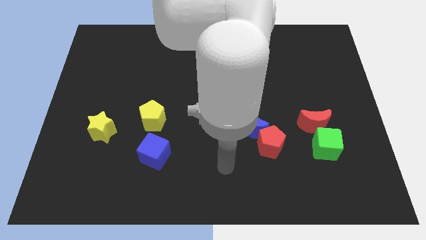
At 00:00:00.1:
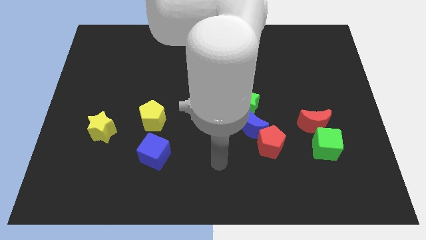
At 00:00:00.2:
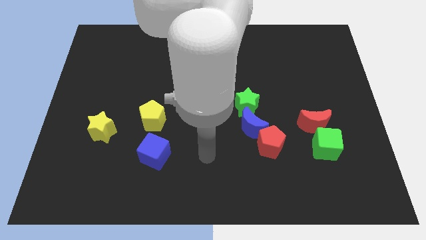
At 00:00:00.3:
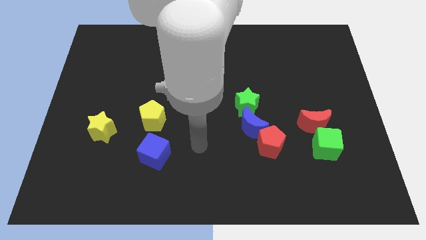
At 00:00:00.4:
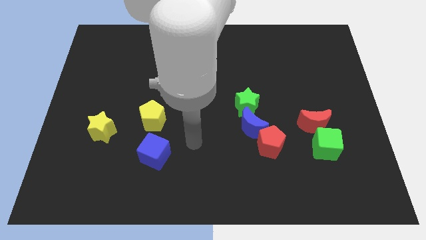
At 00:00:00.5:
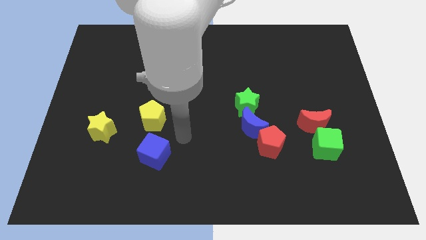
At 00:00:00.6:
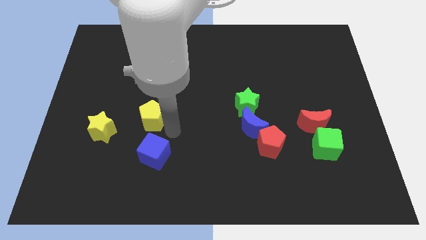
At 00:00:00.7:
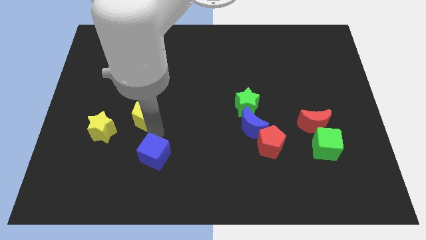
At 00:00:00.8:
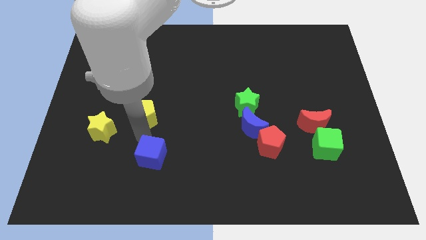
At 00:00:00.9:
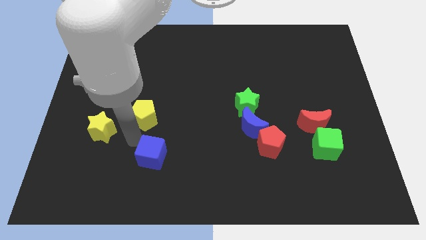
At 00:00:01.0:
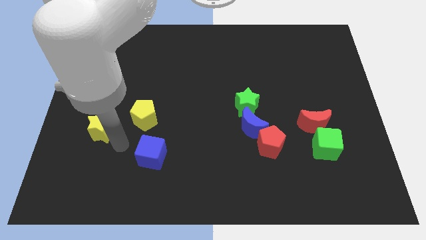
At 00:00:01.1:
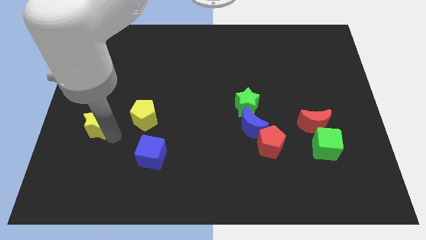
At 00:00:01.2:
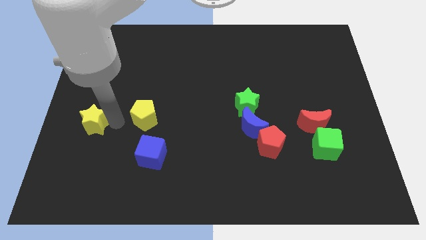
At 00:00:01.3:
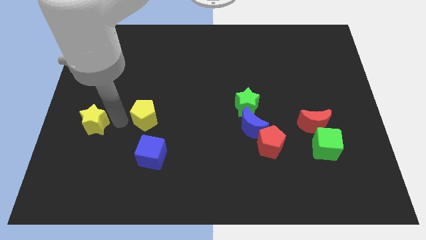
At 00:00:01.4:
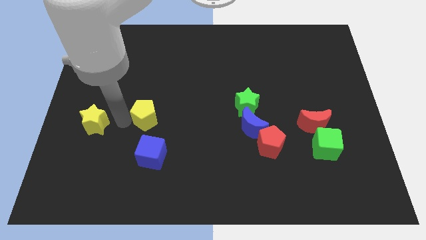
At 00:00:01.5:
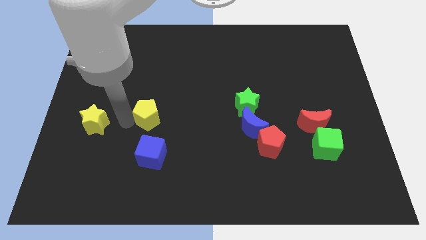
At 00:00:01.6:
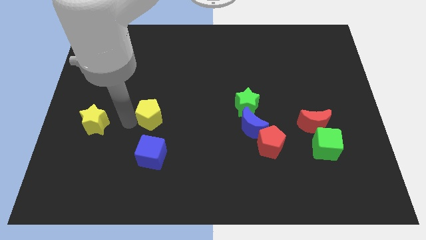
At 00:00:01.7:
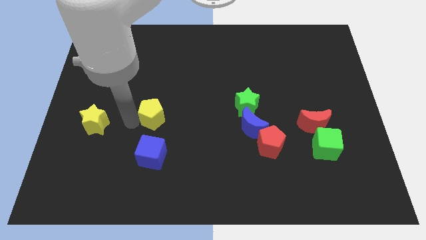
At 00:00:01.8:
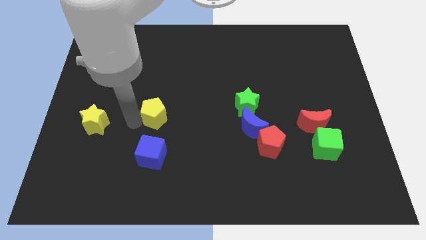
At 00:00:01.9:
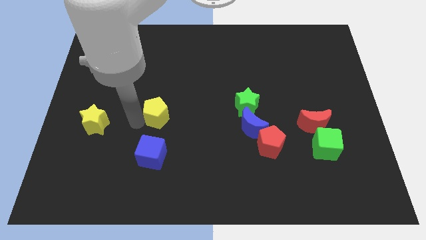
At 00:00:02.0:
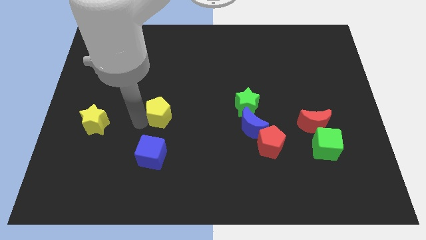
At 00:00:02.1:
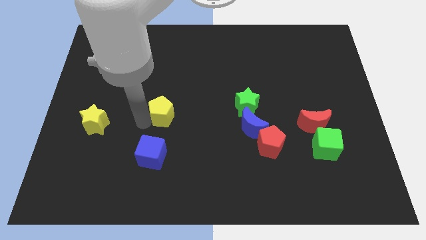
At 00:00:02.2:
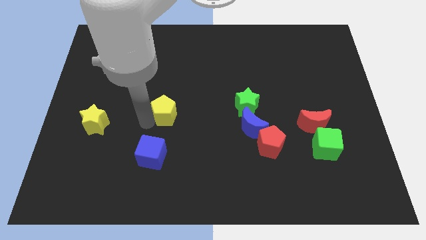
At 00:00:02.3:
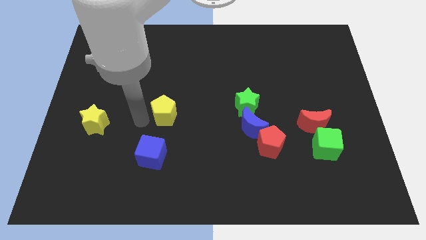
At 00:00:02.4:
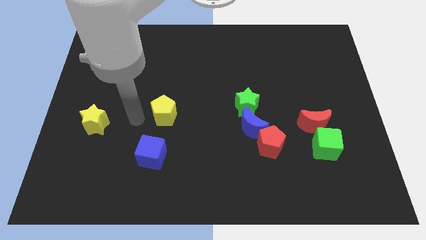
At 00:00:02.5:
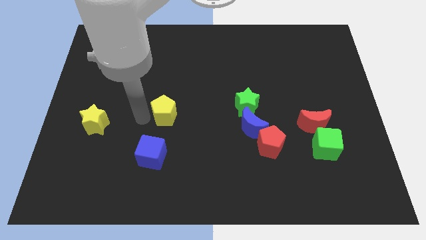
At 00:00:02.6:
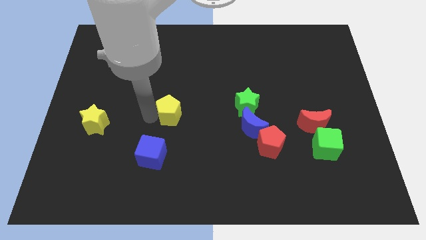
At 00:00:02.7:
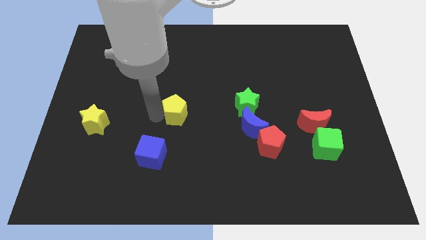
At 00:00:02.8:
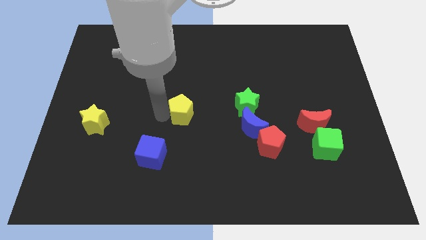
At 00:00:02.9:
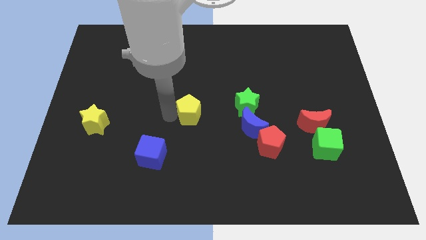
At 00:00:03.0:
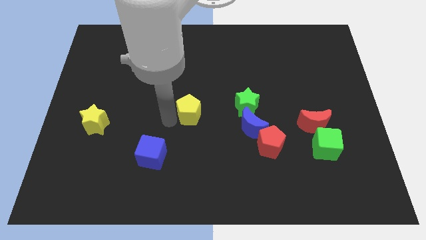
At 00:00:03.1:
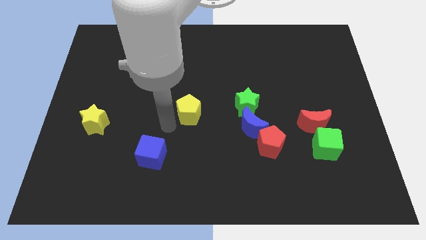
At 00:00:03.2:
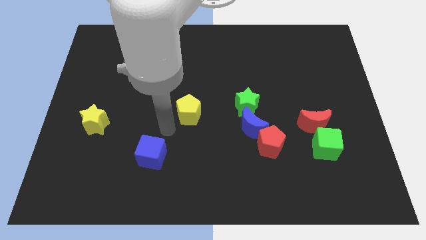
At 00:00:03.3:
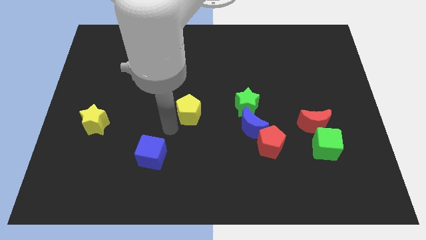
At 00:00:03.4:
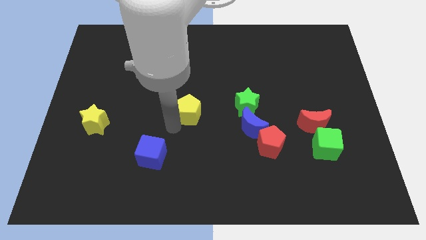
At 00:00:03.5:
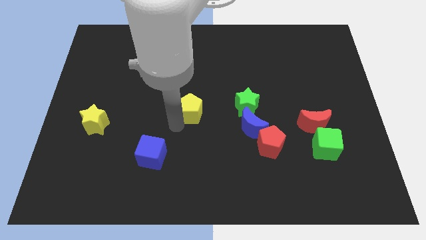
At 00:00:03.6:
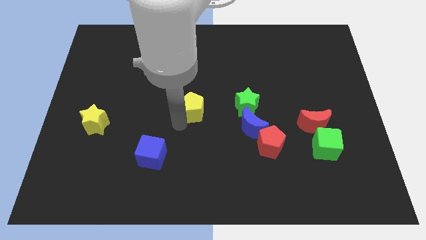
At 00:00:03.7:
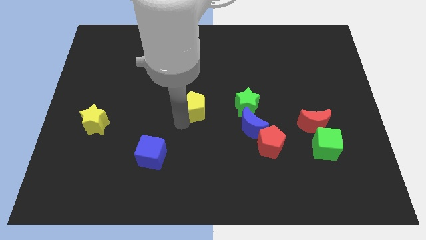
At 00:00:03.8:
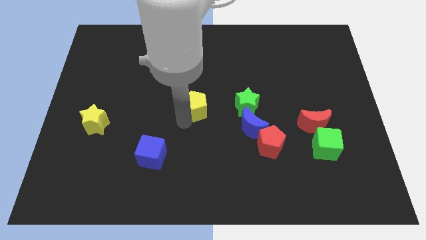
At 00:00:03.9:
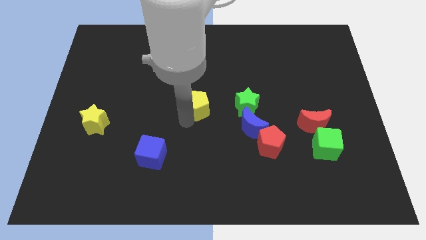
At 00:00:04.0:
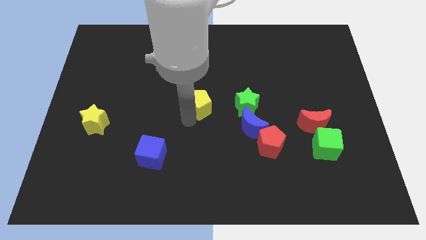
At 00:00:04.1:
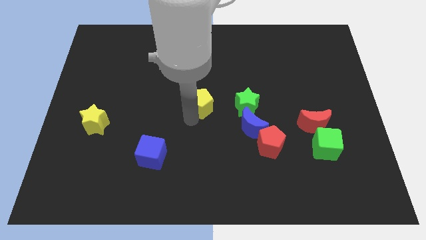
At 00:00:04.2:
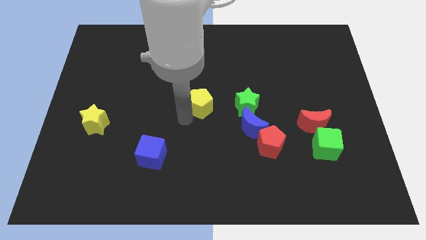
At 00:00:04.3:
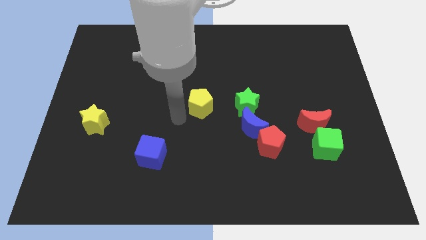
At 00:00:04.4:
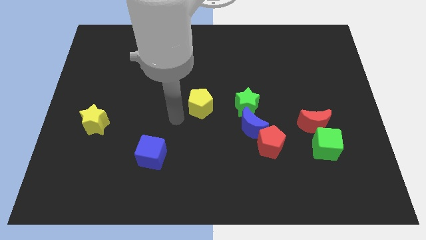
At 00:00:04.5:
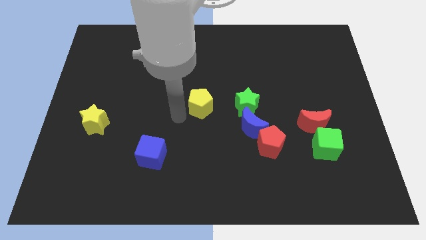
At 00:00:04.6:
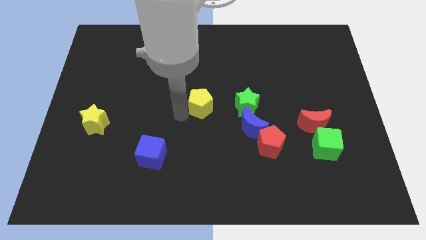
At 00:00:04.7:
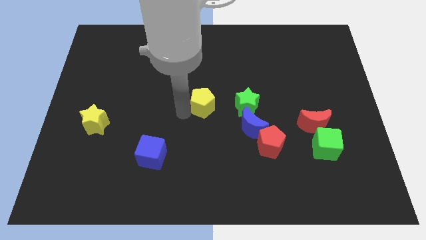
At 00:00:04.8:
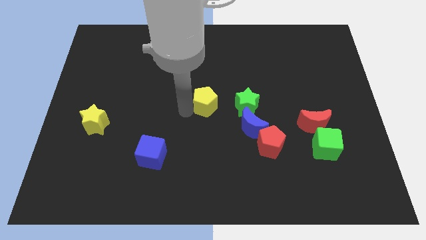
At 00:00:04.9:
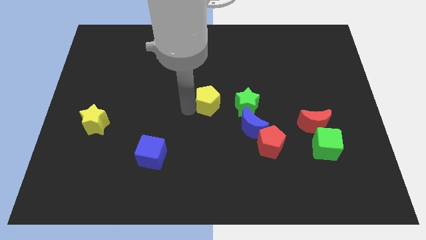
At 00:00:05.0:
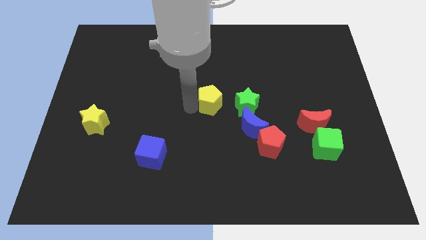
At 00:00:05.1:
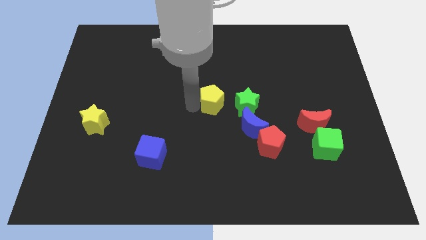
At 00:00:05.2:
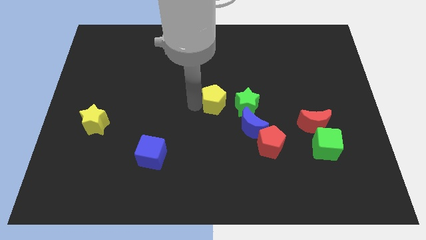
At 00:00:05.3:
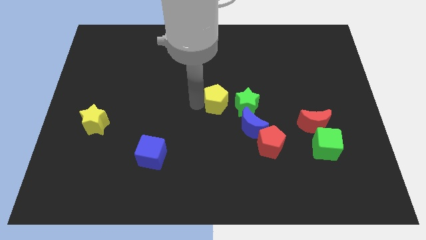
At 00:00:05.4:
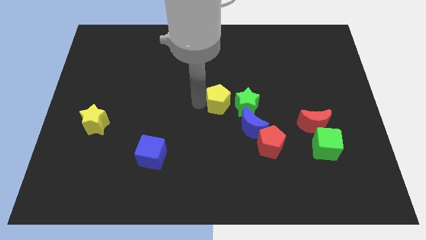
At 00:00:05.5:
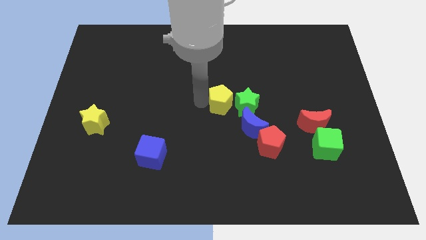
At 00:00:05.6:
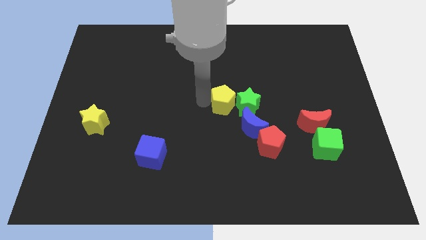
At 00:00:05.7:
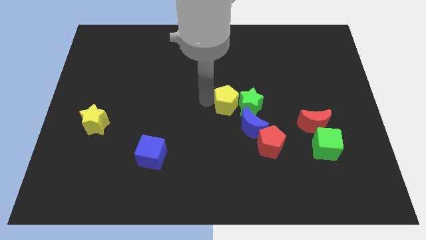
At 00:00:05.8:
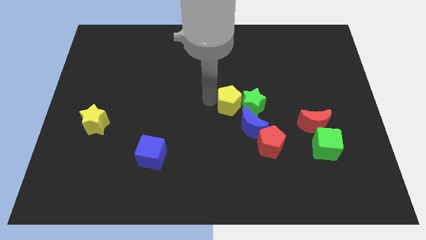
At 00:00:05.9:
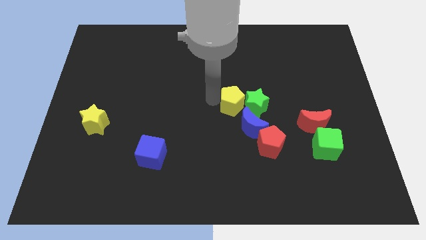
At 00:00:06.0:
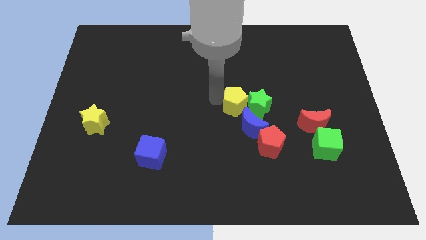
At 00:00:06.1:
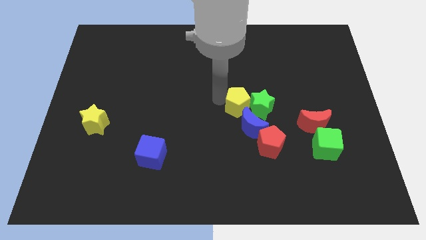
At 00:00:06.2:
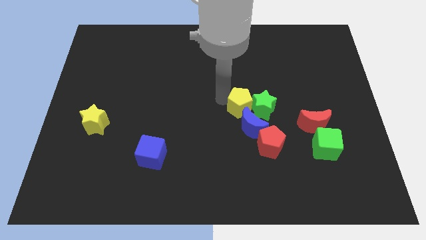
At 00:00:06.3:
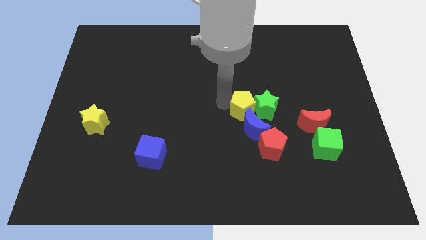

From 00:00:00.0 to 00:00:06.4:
move the yellow pentagon right

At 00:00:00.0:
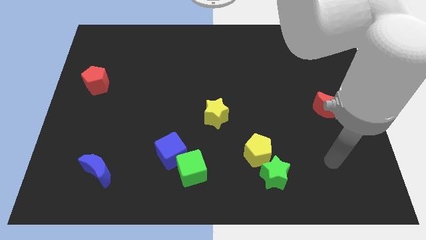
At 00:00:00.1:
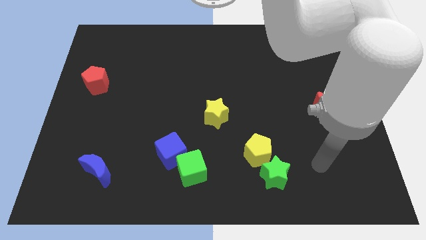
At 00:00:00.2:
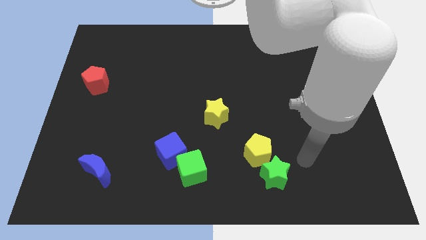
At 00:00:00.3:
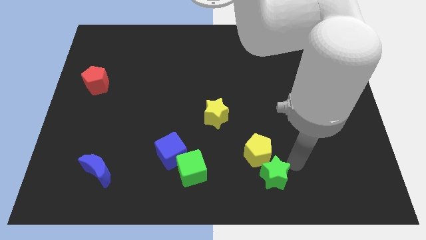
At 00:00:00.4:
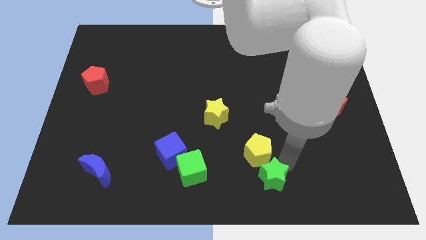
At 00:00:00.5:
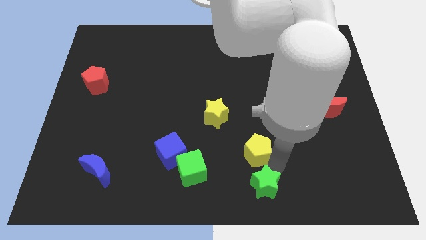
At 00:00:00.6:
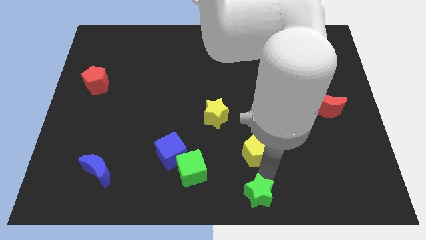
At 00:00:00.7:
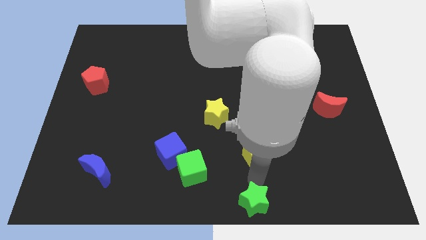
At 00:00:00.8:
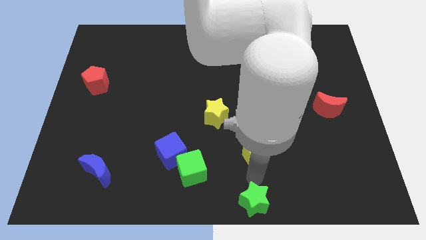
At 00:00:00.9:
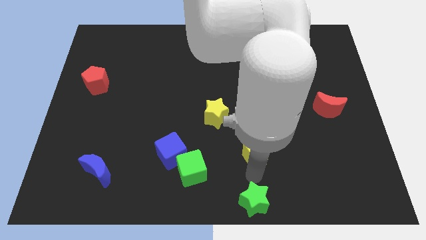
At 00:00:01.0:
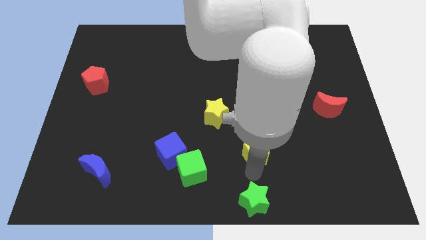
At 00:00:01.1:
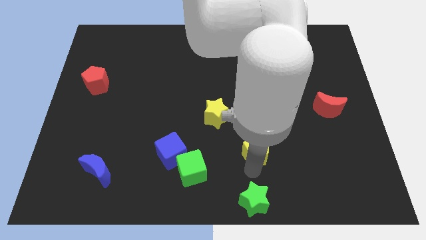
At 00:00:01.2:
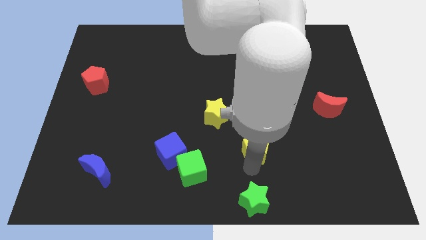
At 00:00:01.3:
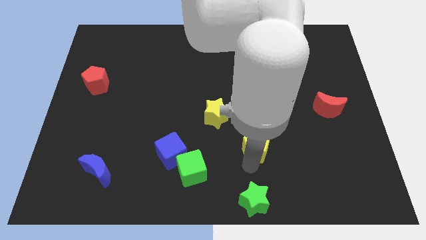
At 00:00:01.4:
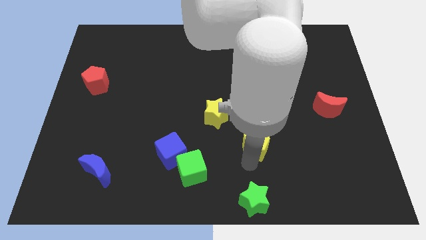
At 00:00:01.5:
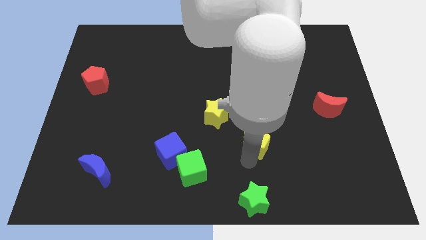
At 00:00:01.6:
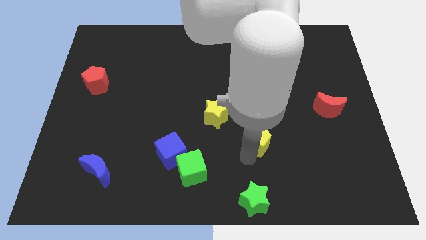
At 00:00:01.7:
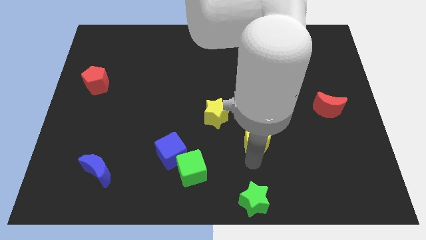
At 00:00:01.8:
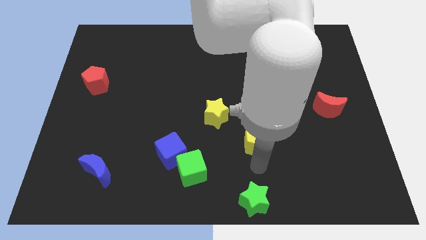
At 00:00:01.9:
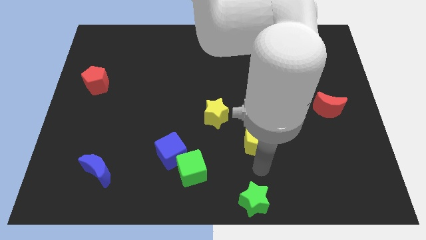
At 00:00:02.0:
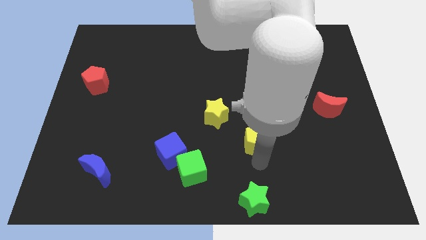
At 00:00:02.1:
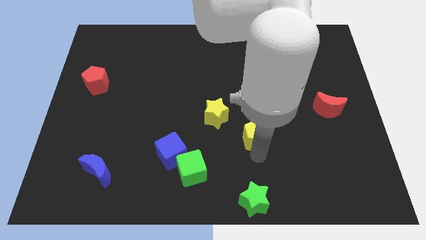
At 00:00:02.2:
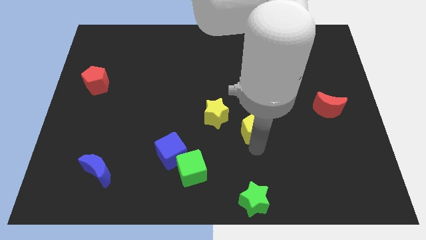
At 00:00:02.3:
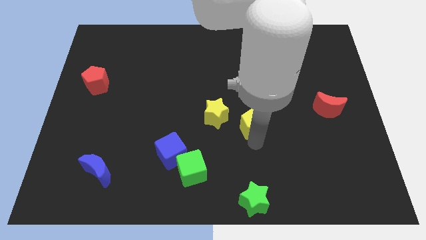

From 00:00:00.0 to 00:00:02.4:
slightly move the yellow pentagon upwards
